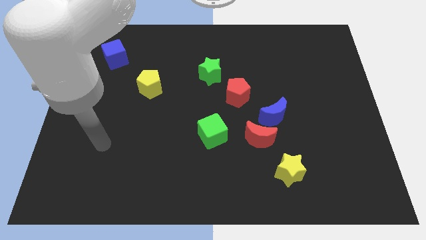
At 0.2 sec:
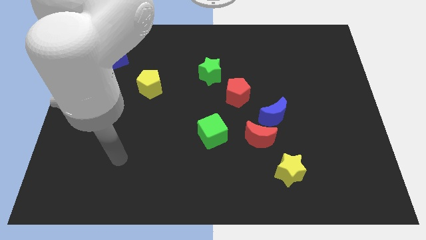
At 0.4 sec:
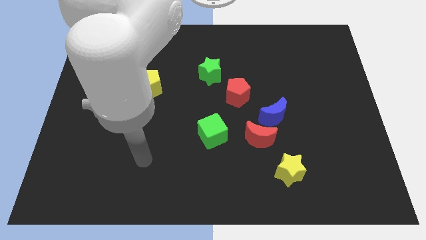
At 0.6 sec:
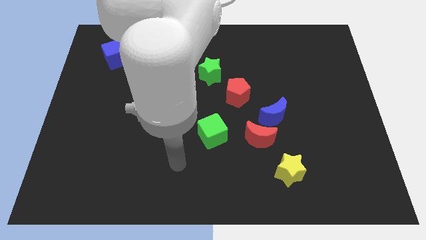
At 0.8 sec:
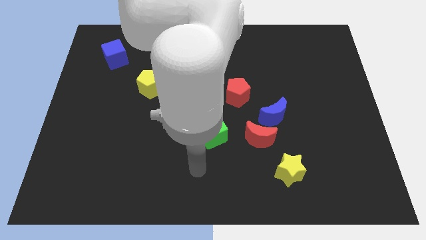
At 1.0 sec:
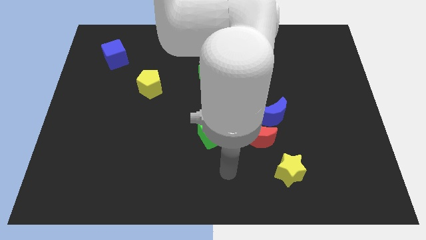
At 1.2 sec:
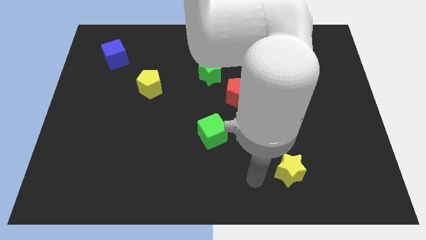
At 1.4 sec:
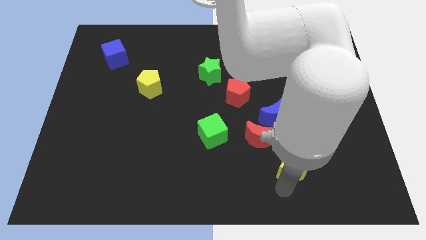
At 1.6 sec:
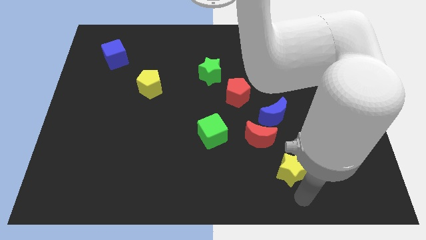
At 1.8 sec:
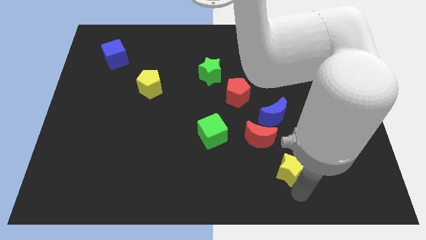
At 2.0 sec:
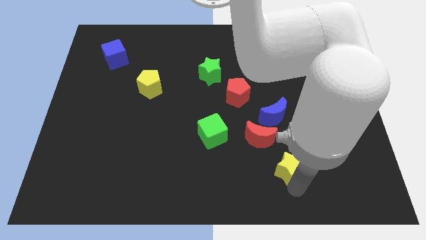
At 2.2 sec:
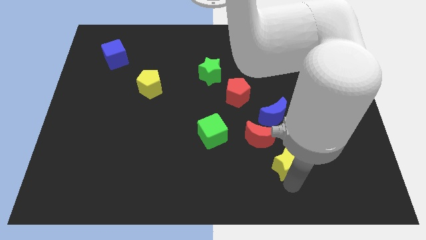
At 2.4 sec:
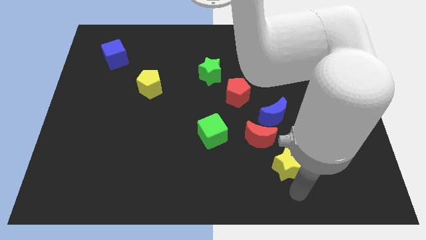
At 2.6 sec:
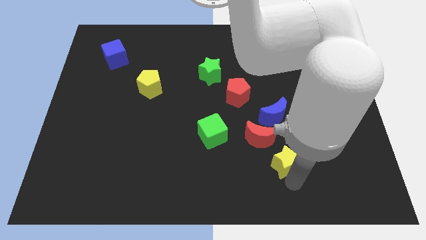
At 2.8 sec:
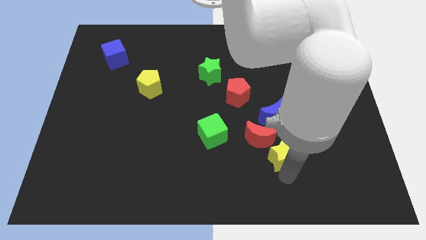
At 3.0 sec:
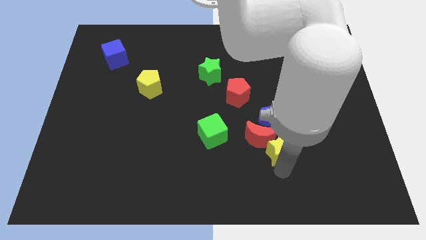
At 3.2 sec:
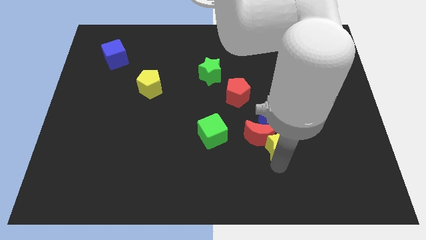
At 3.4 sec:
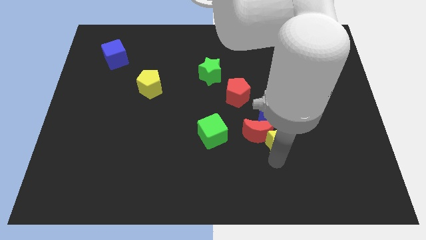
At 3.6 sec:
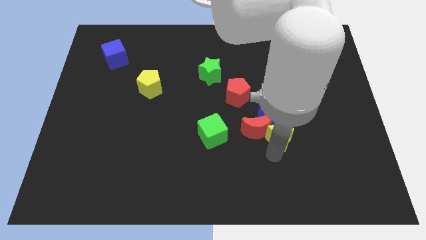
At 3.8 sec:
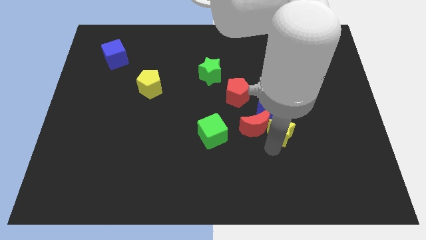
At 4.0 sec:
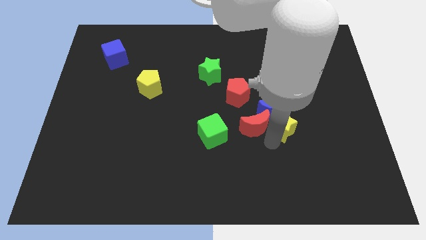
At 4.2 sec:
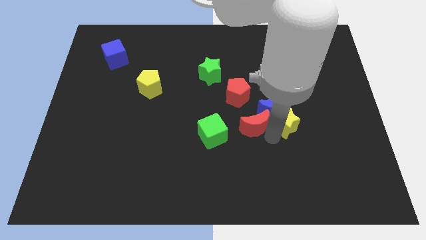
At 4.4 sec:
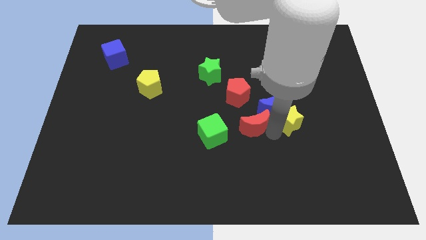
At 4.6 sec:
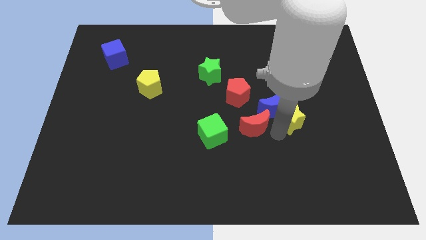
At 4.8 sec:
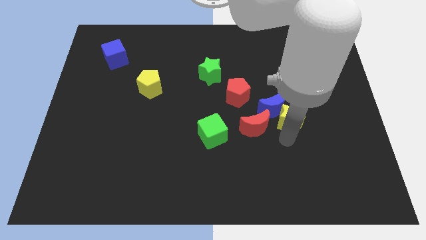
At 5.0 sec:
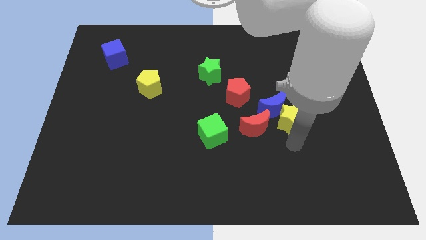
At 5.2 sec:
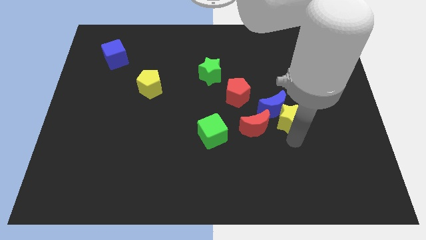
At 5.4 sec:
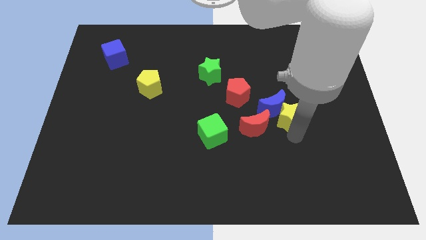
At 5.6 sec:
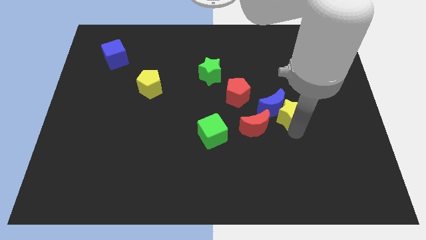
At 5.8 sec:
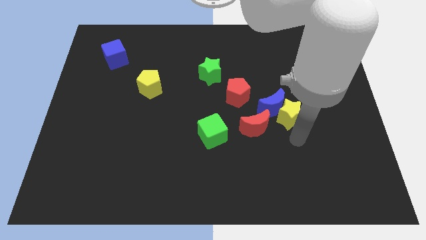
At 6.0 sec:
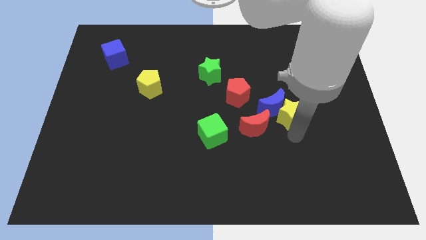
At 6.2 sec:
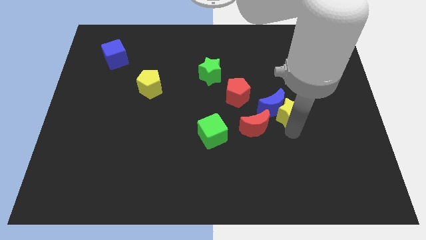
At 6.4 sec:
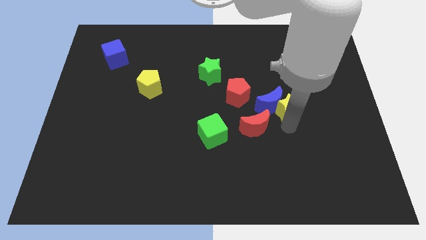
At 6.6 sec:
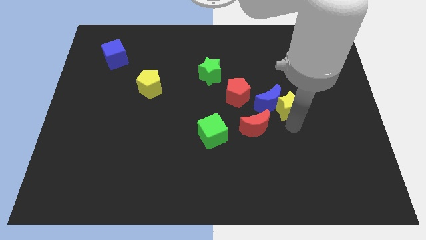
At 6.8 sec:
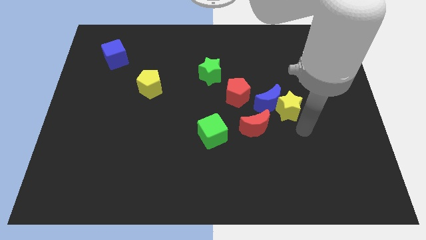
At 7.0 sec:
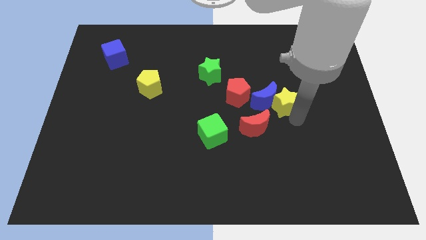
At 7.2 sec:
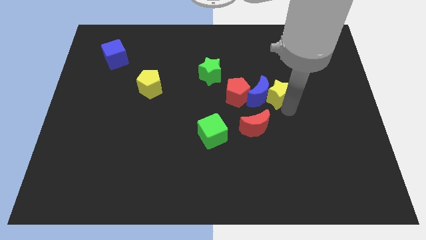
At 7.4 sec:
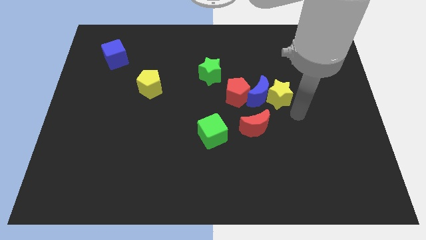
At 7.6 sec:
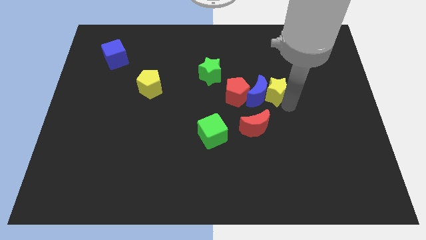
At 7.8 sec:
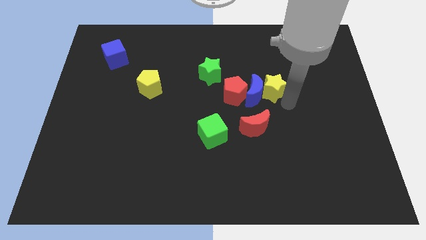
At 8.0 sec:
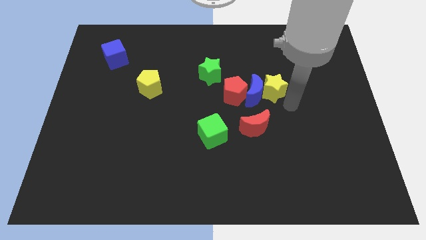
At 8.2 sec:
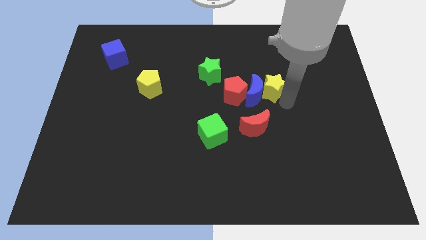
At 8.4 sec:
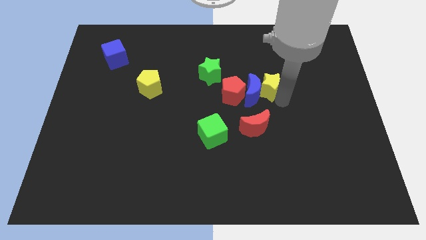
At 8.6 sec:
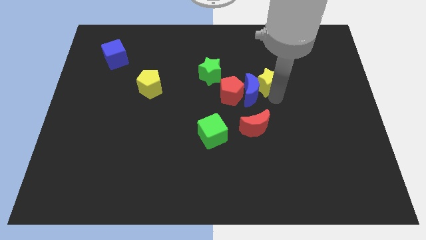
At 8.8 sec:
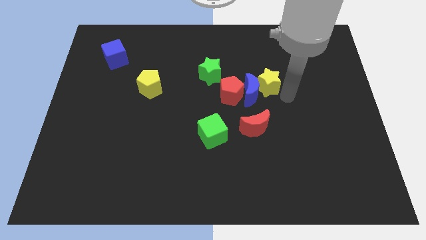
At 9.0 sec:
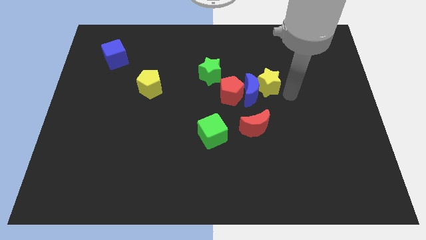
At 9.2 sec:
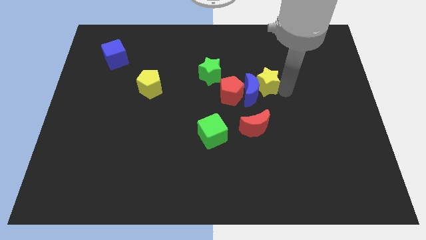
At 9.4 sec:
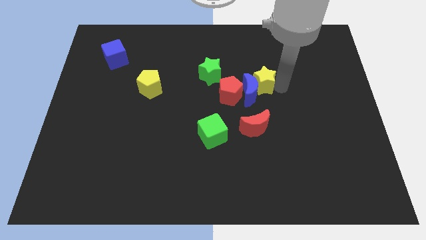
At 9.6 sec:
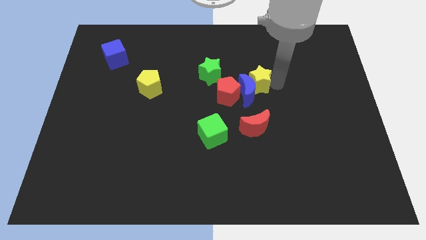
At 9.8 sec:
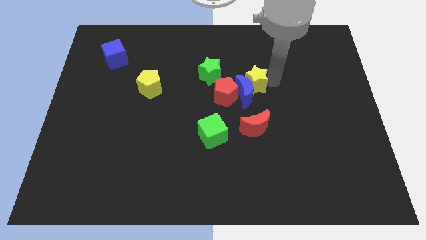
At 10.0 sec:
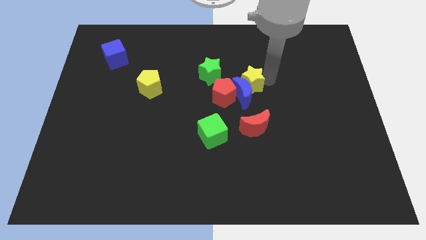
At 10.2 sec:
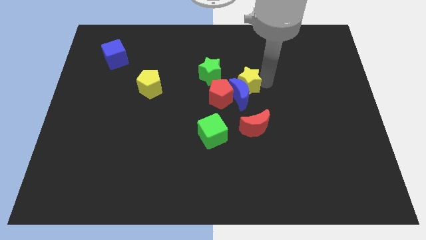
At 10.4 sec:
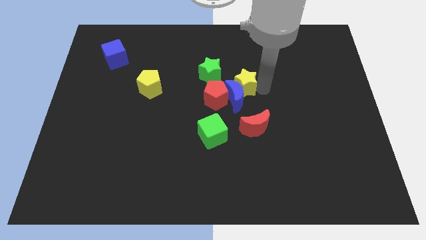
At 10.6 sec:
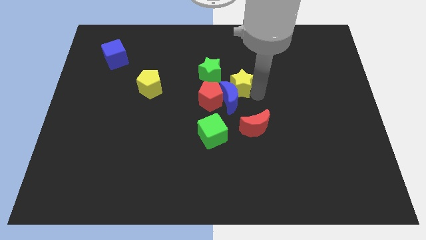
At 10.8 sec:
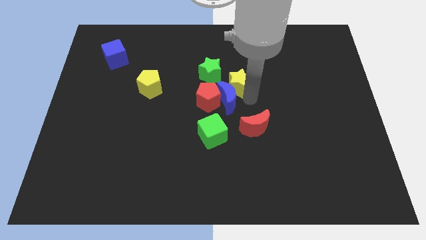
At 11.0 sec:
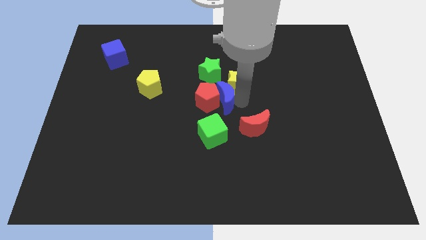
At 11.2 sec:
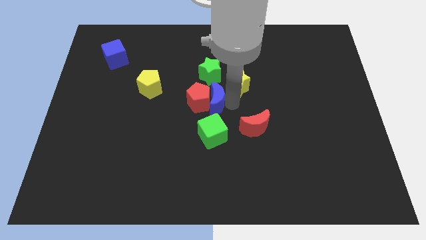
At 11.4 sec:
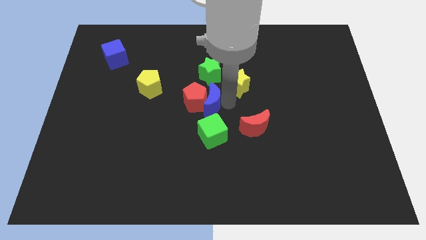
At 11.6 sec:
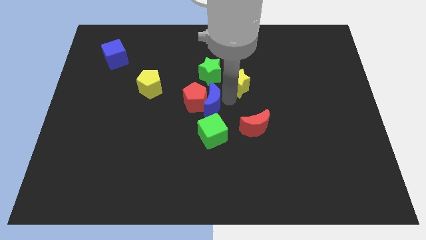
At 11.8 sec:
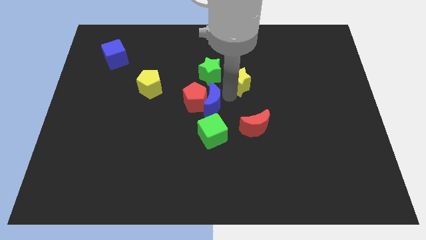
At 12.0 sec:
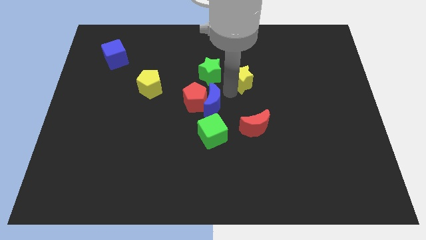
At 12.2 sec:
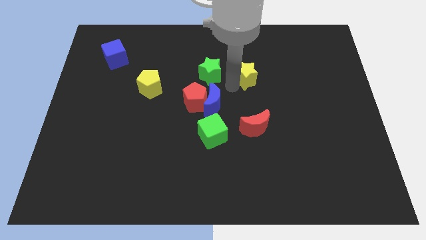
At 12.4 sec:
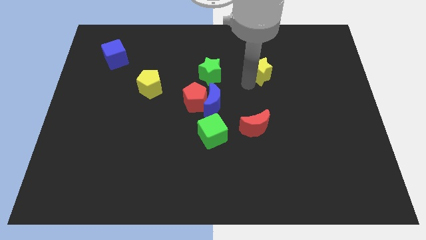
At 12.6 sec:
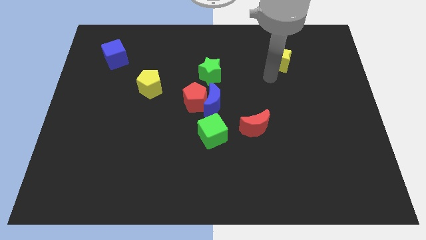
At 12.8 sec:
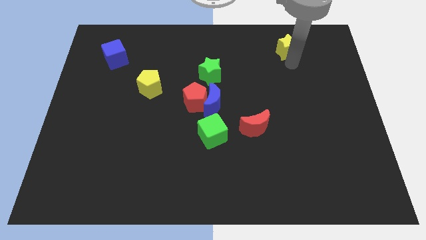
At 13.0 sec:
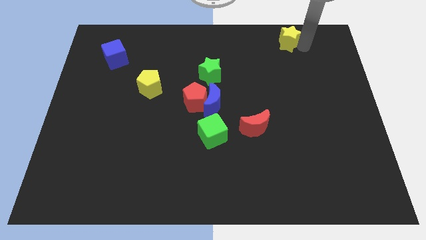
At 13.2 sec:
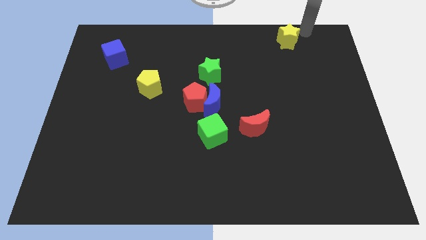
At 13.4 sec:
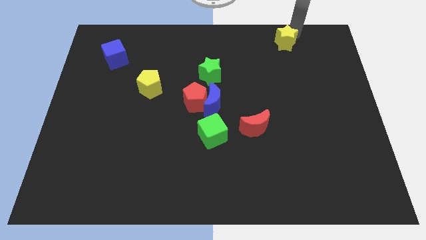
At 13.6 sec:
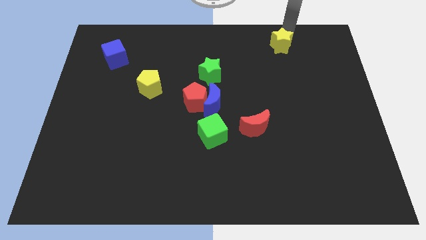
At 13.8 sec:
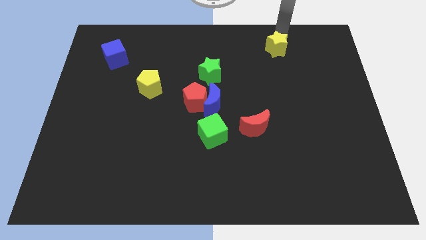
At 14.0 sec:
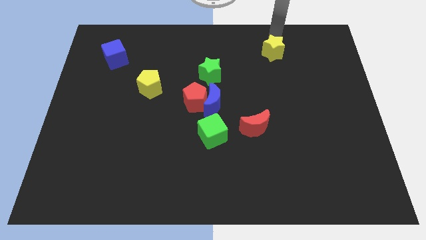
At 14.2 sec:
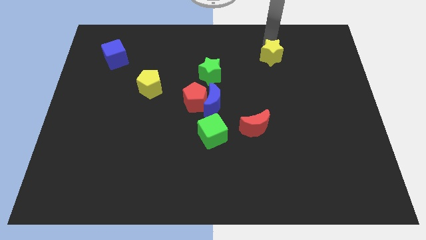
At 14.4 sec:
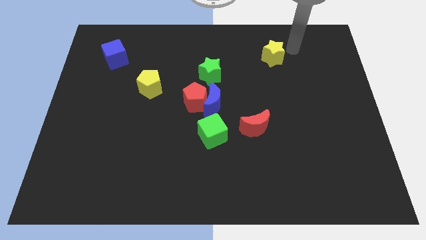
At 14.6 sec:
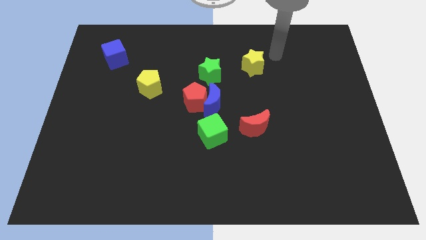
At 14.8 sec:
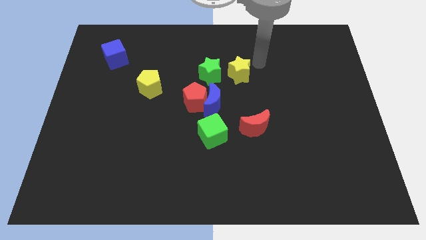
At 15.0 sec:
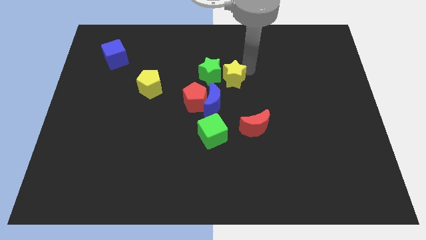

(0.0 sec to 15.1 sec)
move the yellow star close to the green star

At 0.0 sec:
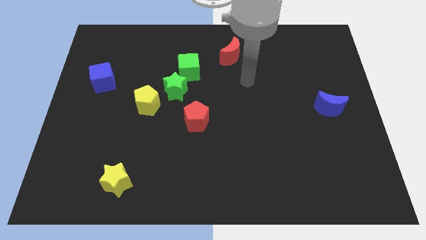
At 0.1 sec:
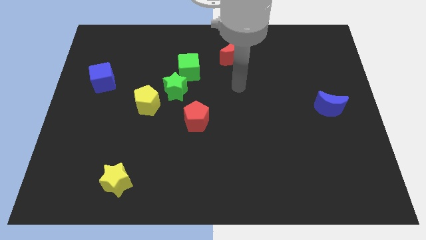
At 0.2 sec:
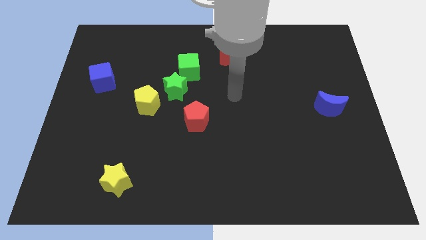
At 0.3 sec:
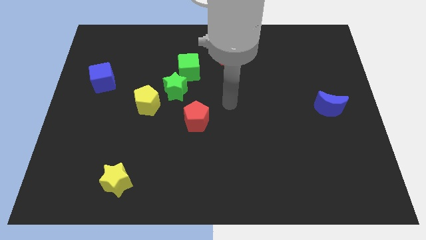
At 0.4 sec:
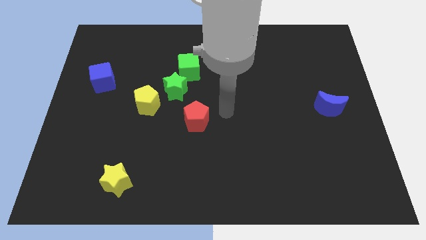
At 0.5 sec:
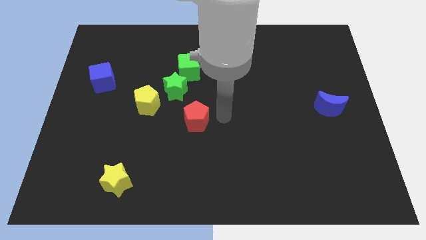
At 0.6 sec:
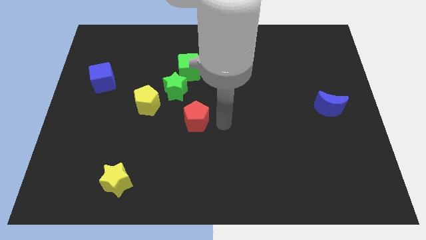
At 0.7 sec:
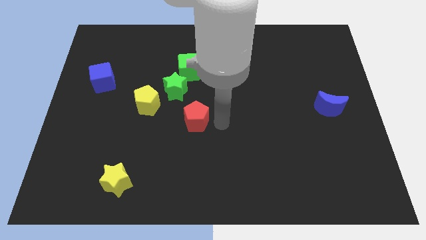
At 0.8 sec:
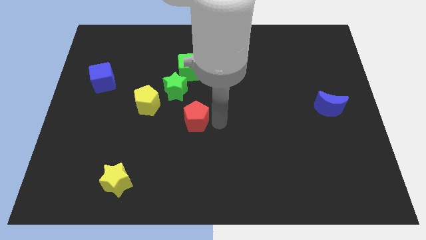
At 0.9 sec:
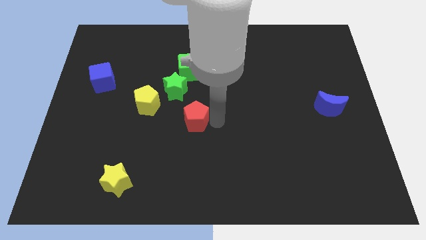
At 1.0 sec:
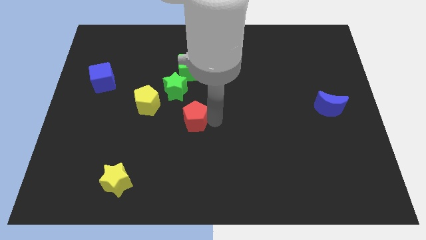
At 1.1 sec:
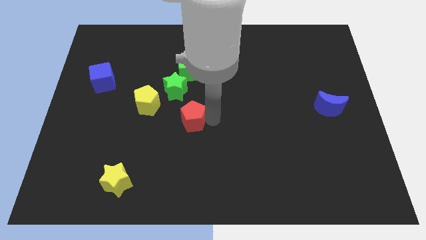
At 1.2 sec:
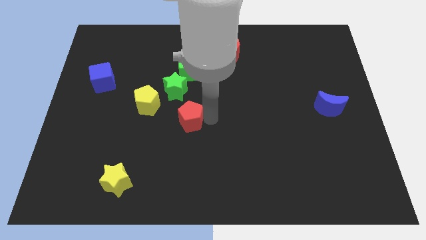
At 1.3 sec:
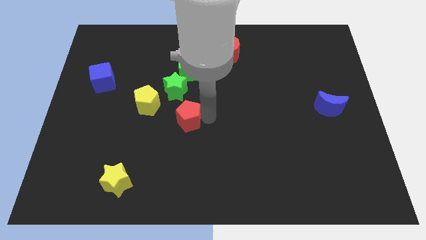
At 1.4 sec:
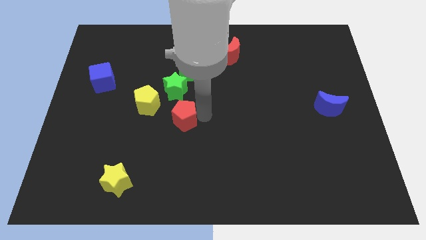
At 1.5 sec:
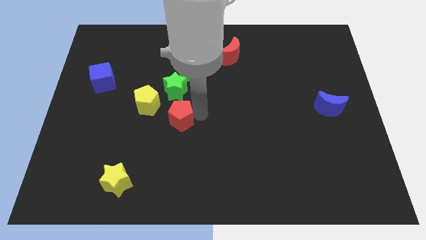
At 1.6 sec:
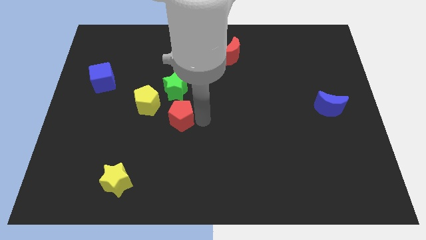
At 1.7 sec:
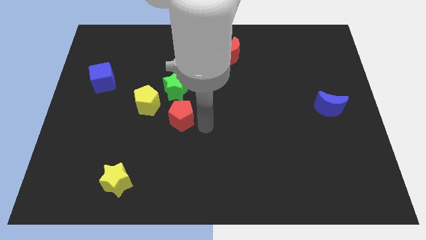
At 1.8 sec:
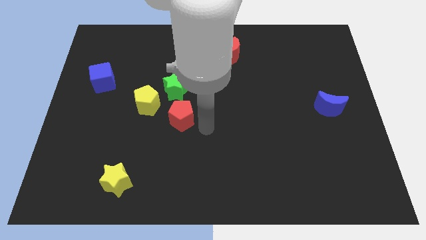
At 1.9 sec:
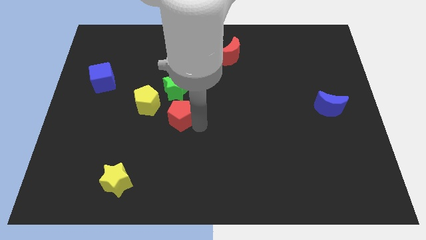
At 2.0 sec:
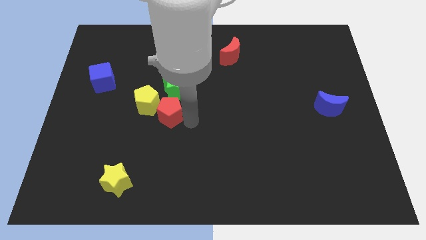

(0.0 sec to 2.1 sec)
slide the red pentagon towards the yellow pentagon
